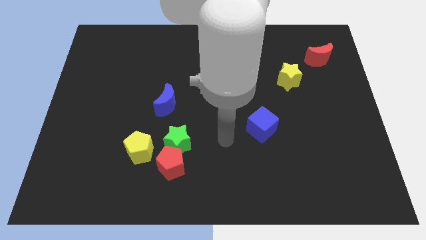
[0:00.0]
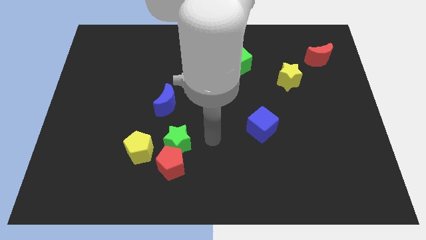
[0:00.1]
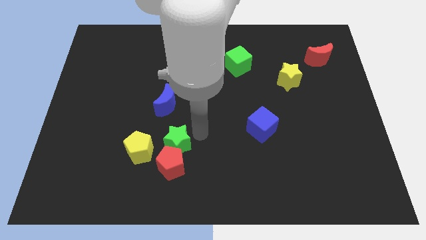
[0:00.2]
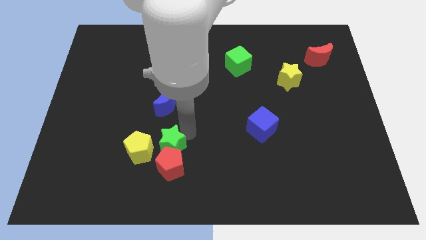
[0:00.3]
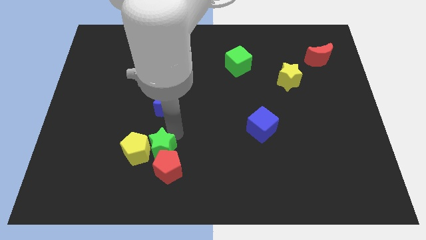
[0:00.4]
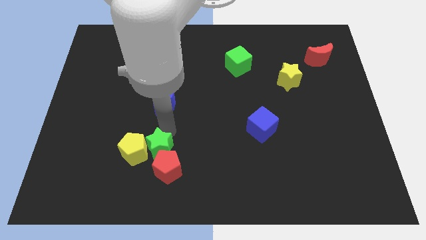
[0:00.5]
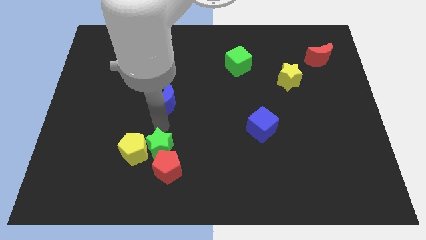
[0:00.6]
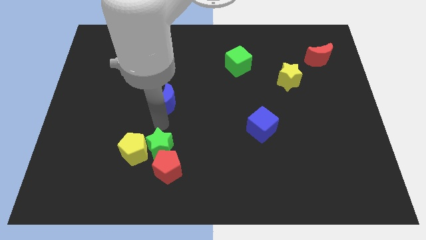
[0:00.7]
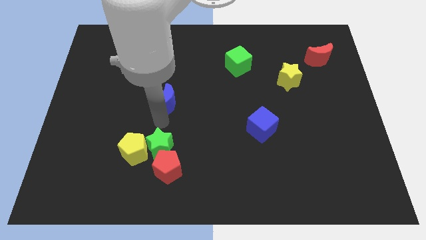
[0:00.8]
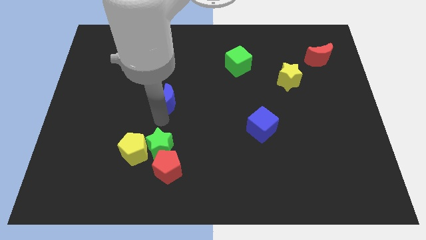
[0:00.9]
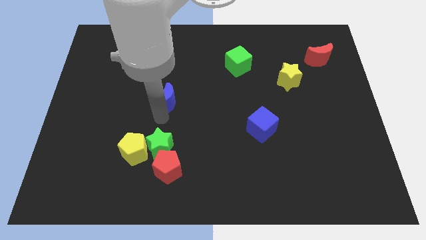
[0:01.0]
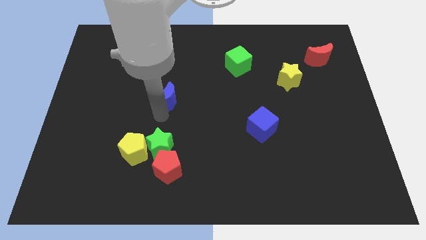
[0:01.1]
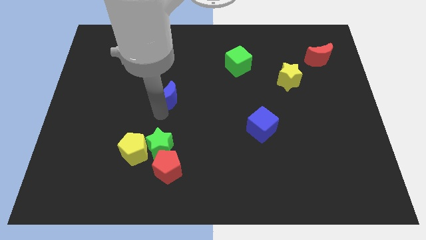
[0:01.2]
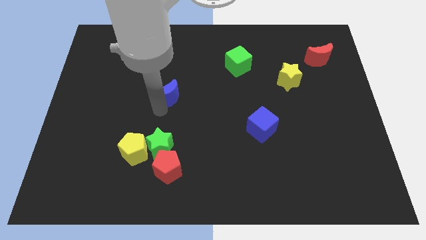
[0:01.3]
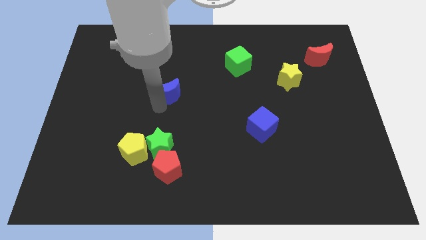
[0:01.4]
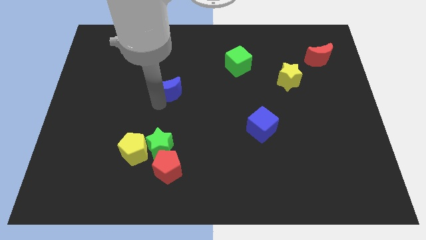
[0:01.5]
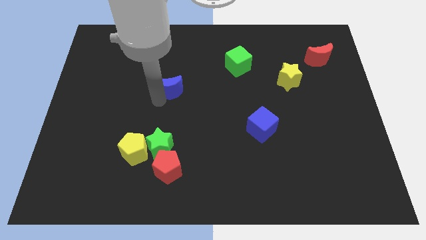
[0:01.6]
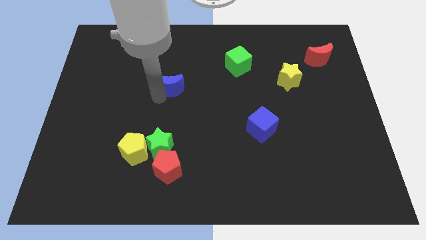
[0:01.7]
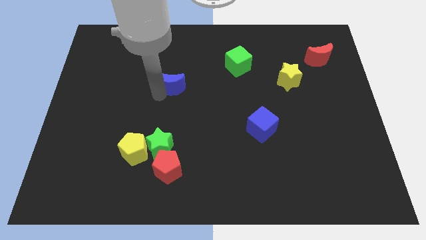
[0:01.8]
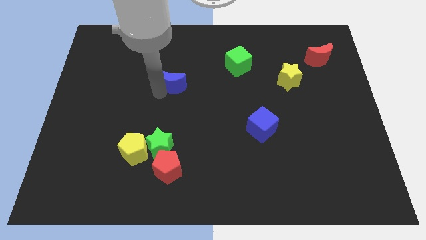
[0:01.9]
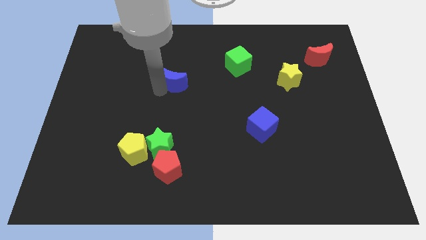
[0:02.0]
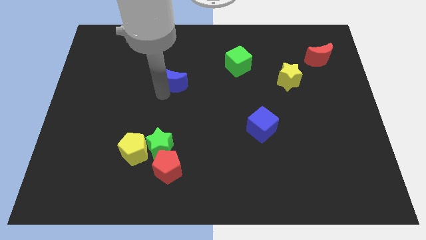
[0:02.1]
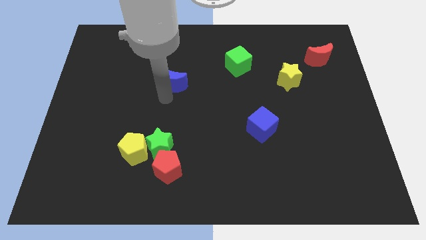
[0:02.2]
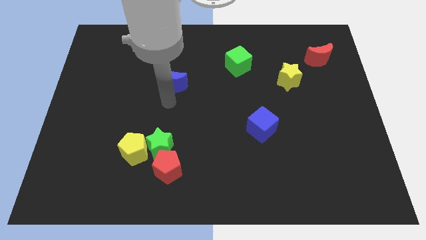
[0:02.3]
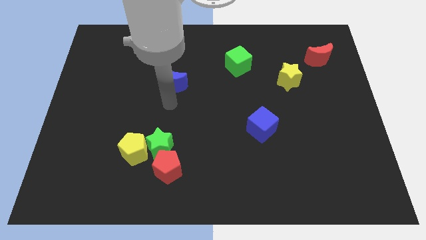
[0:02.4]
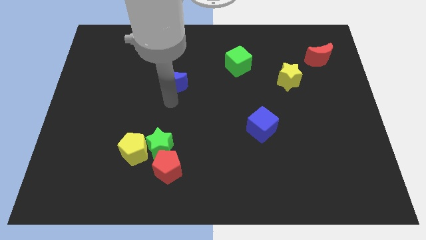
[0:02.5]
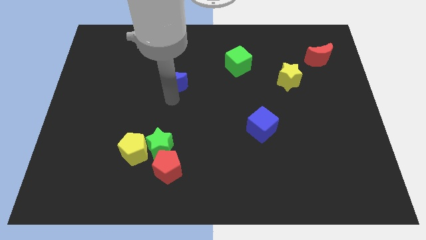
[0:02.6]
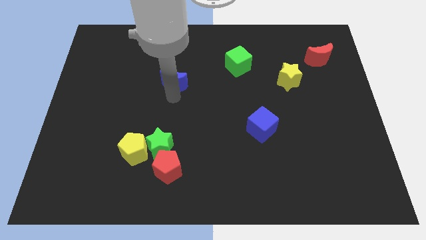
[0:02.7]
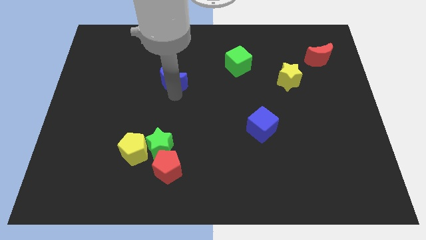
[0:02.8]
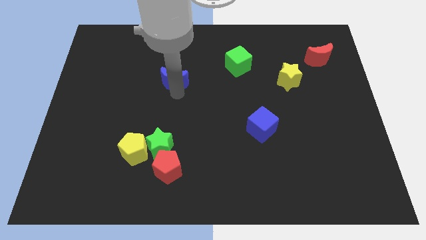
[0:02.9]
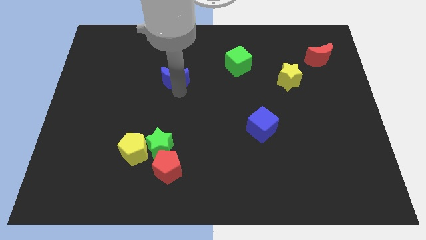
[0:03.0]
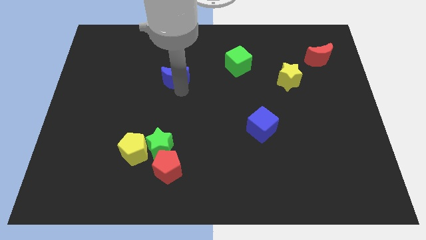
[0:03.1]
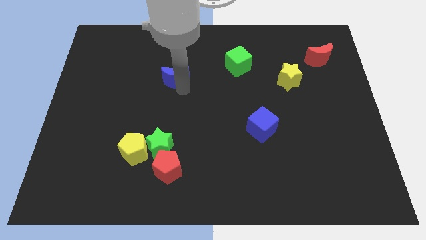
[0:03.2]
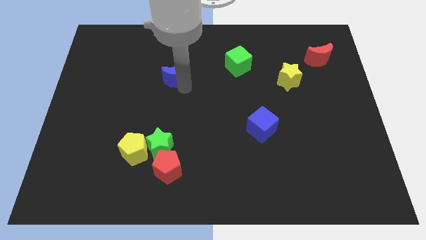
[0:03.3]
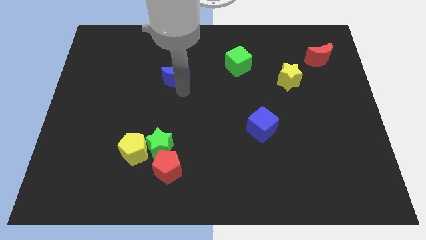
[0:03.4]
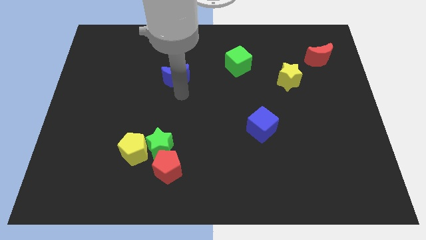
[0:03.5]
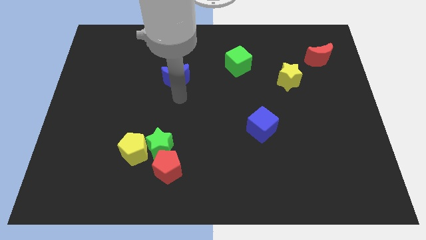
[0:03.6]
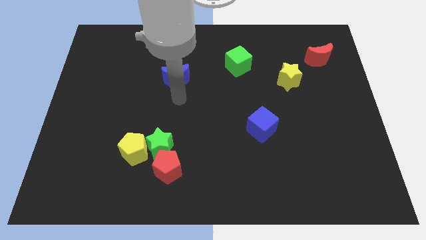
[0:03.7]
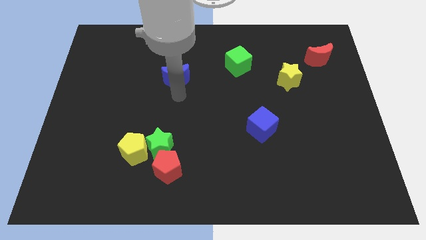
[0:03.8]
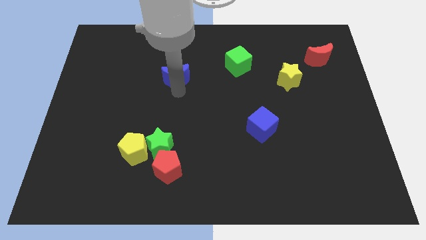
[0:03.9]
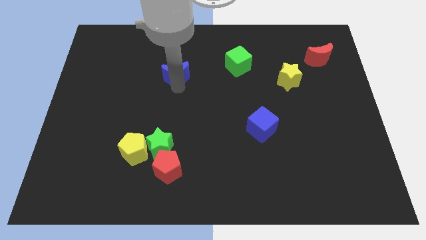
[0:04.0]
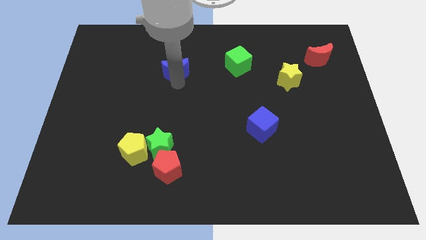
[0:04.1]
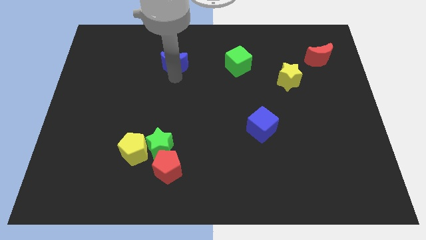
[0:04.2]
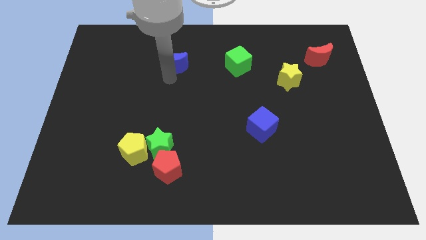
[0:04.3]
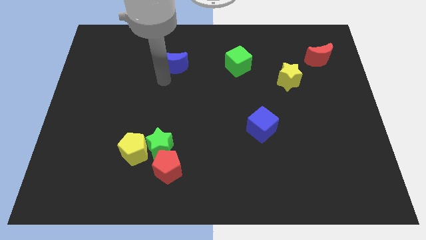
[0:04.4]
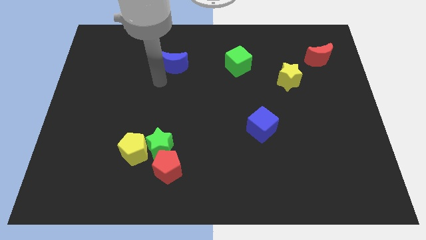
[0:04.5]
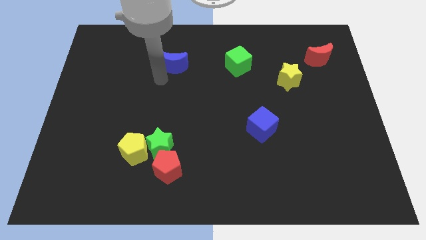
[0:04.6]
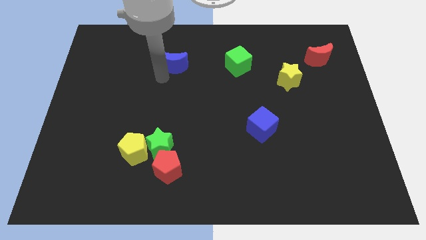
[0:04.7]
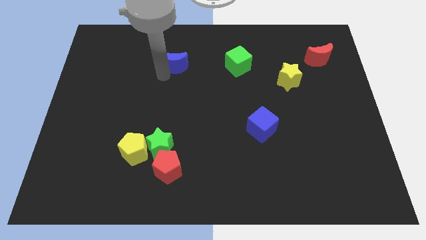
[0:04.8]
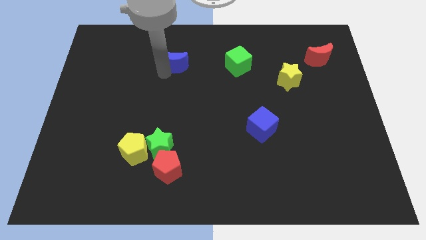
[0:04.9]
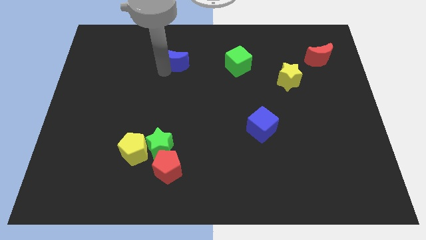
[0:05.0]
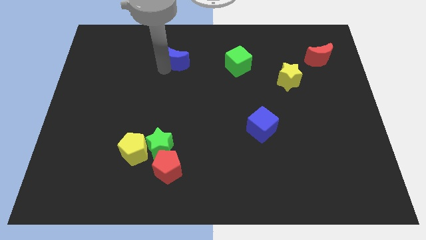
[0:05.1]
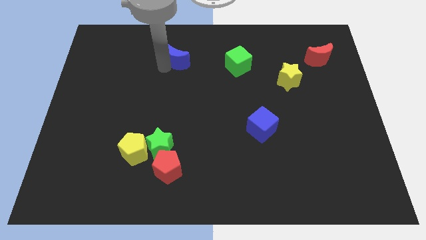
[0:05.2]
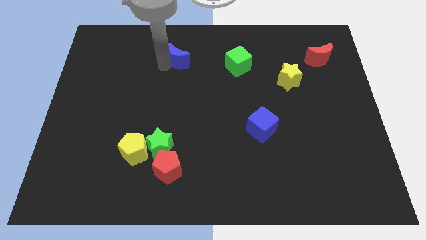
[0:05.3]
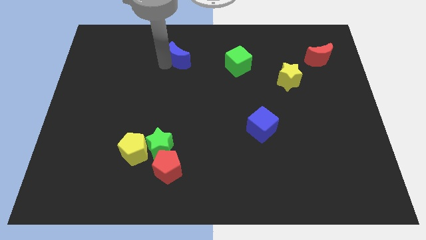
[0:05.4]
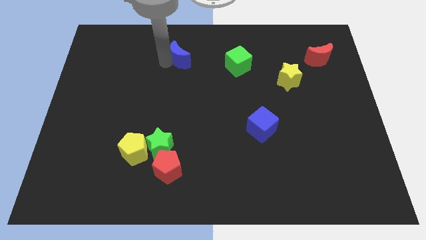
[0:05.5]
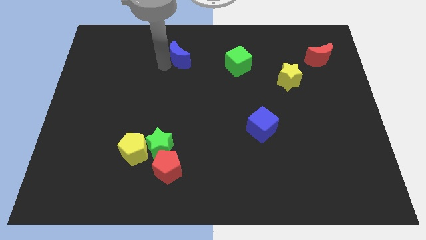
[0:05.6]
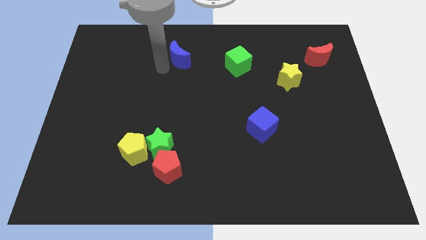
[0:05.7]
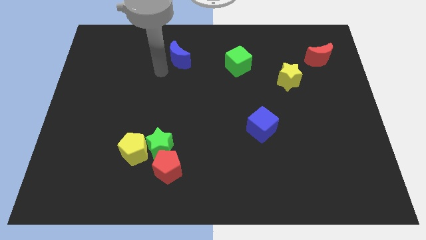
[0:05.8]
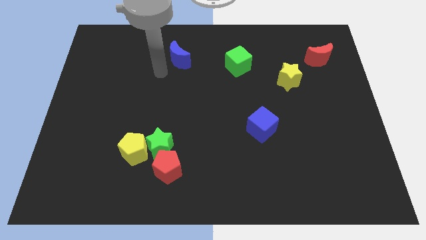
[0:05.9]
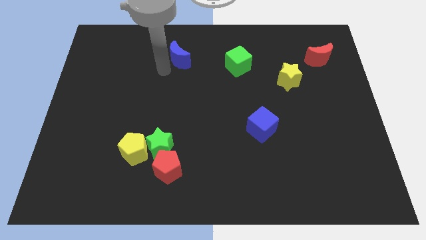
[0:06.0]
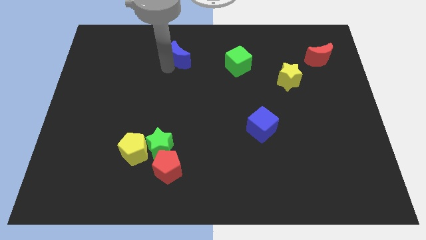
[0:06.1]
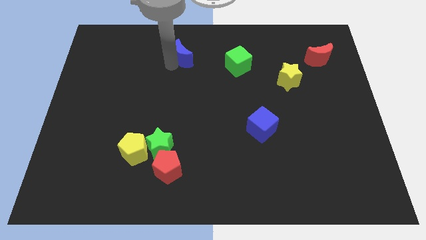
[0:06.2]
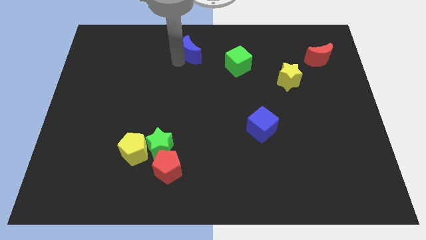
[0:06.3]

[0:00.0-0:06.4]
put the blue moon to the top side
